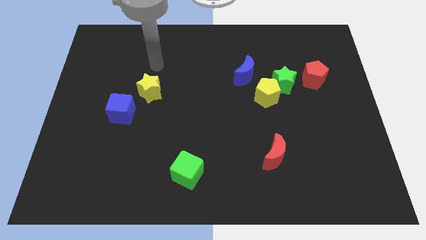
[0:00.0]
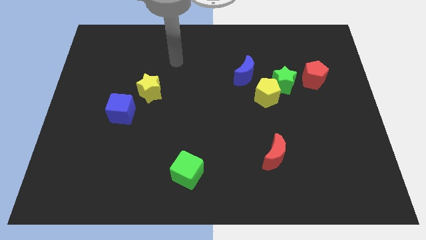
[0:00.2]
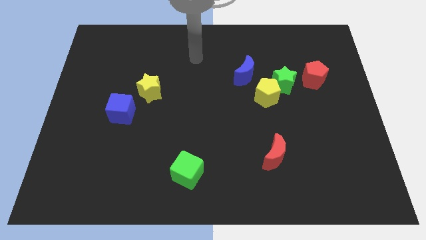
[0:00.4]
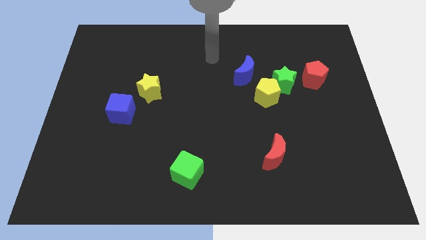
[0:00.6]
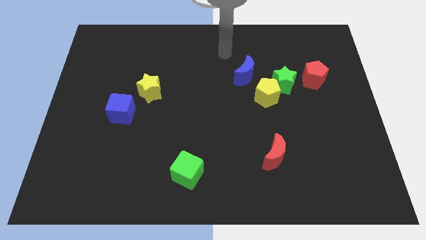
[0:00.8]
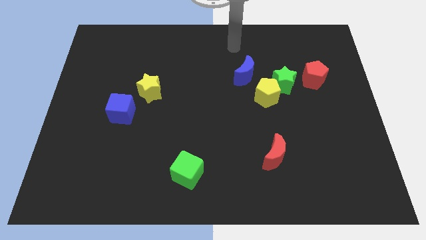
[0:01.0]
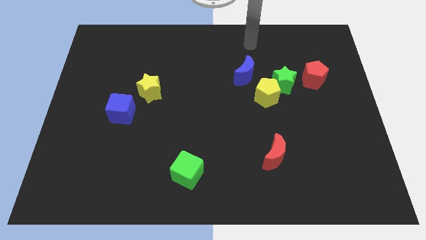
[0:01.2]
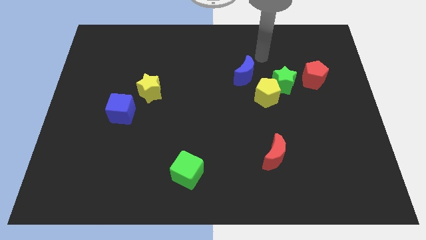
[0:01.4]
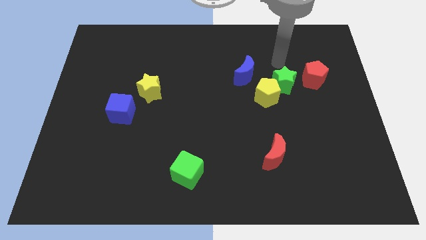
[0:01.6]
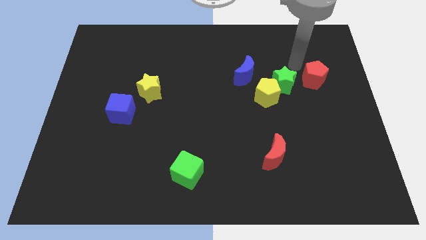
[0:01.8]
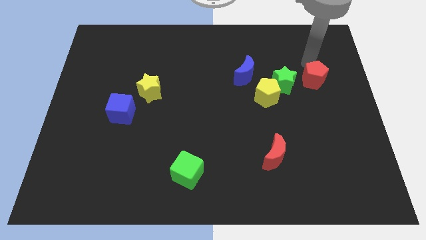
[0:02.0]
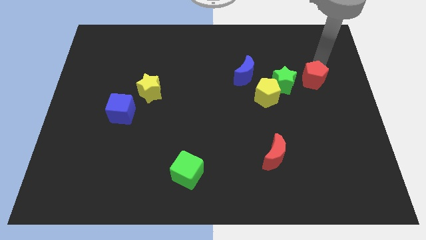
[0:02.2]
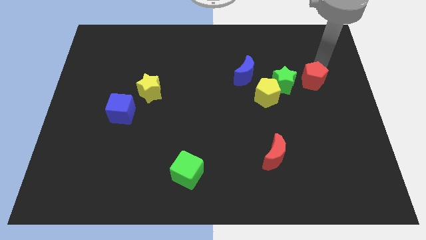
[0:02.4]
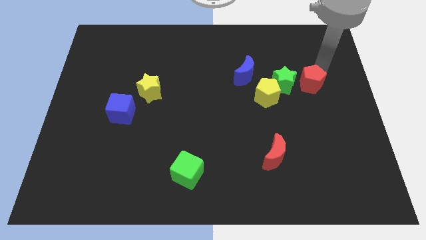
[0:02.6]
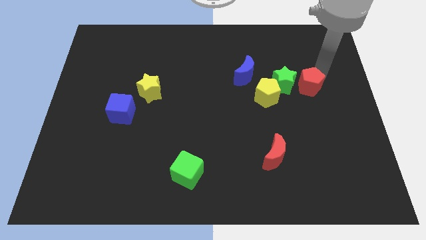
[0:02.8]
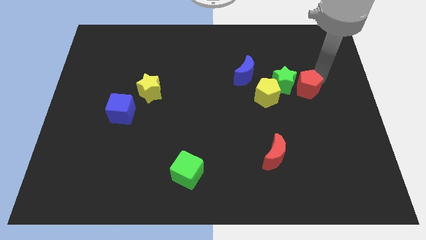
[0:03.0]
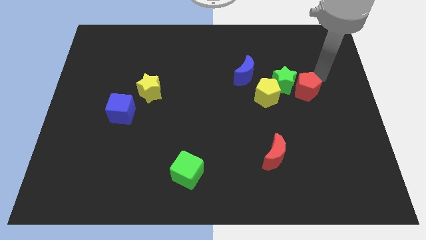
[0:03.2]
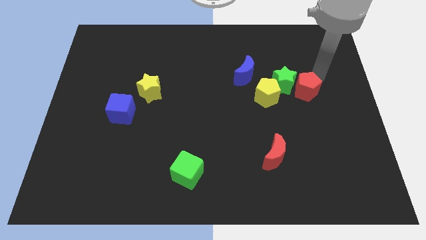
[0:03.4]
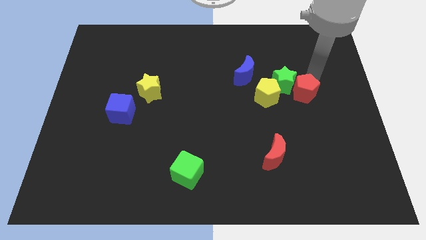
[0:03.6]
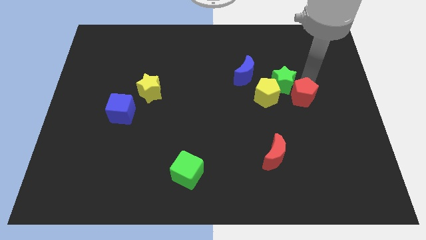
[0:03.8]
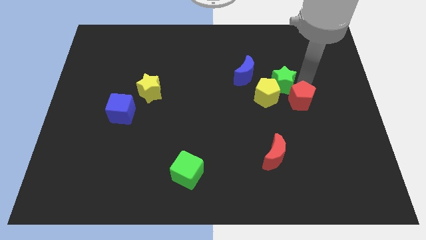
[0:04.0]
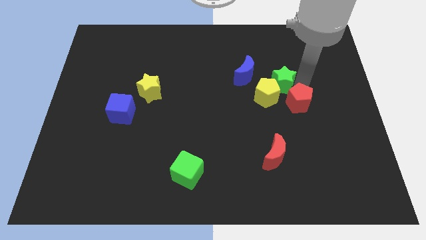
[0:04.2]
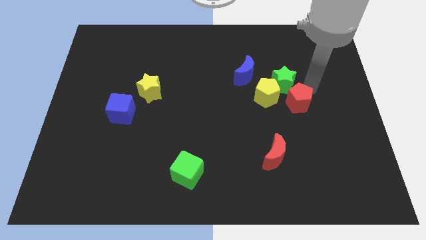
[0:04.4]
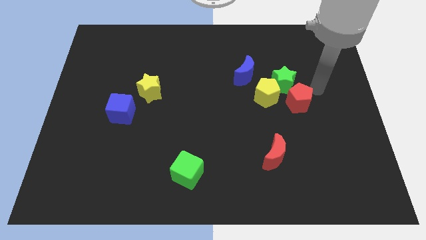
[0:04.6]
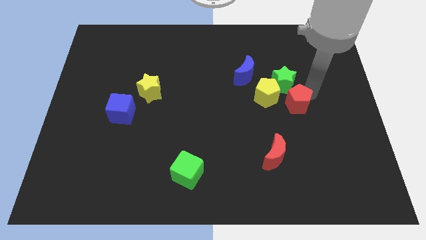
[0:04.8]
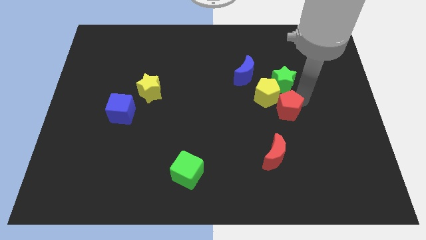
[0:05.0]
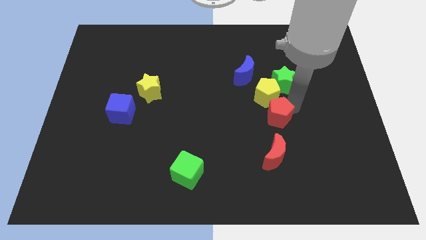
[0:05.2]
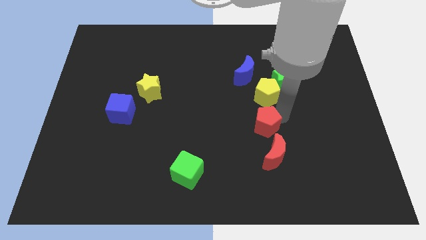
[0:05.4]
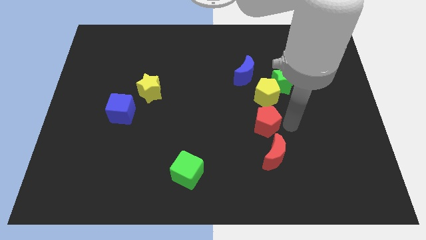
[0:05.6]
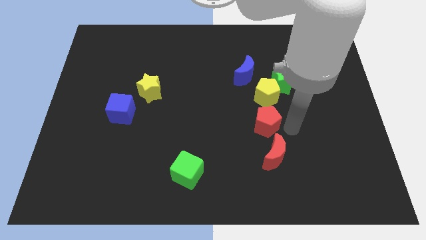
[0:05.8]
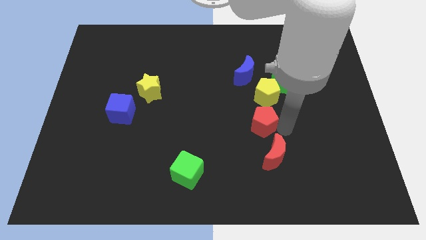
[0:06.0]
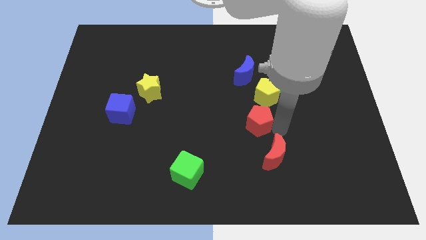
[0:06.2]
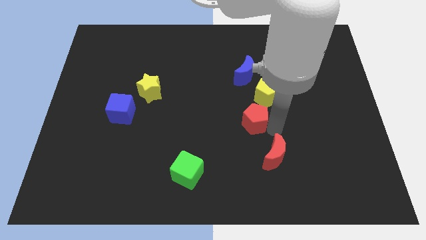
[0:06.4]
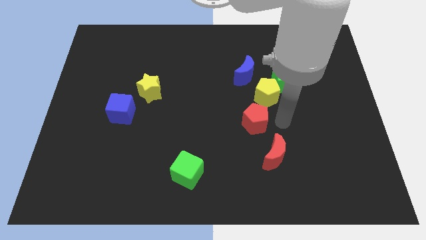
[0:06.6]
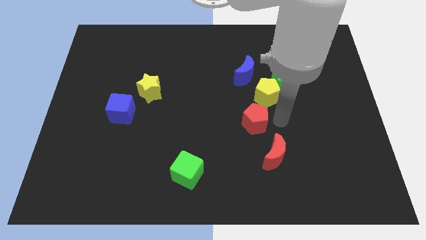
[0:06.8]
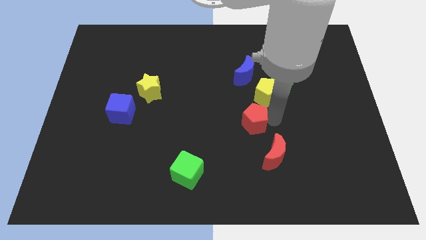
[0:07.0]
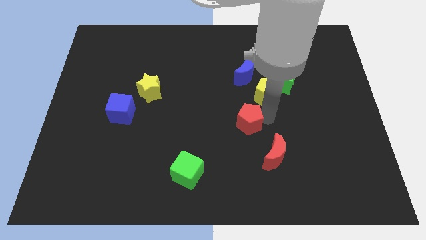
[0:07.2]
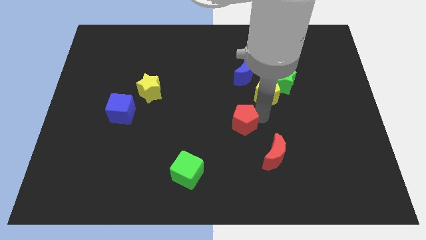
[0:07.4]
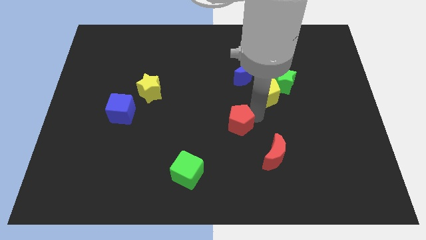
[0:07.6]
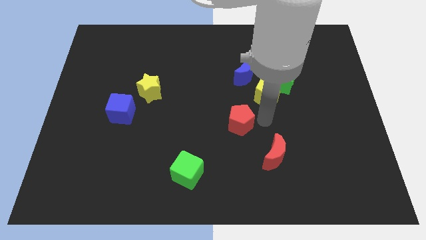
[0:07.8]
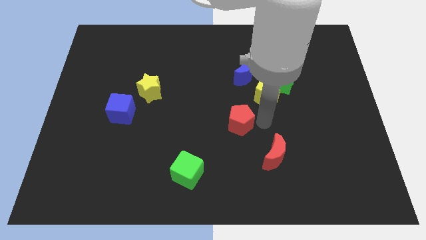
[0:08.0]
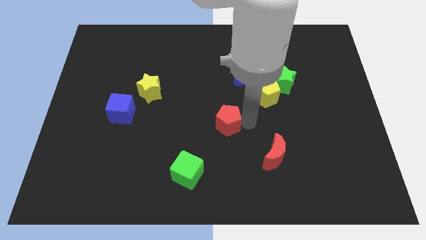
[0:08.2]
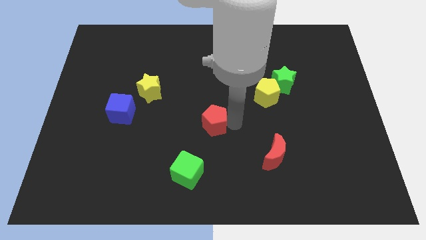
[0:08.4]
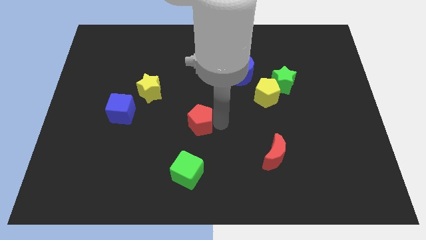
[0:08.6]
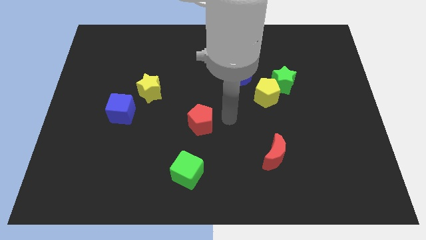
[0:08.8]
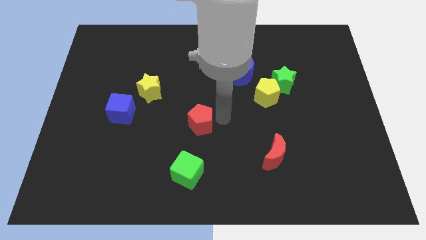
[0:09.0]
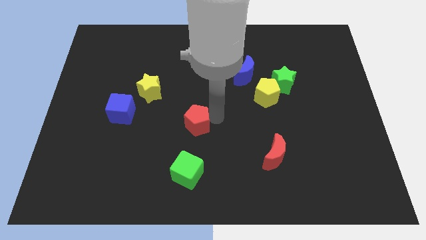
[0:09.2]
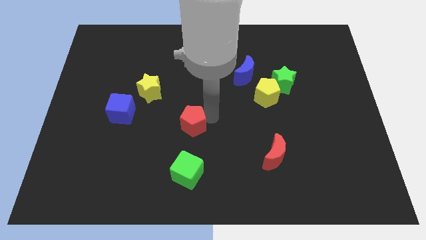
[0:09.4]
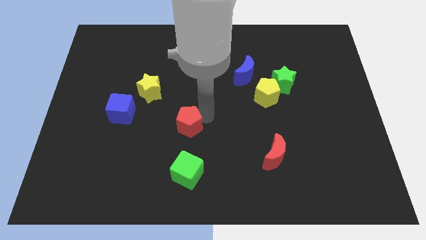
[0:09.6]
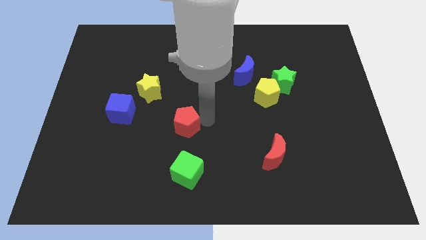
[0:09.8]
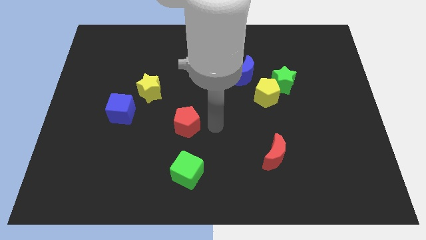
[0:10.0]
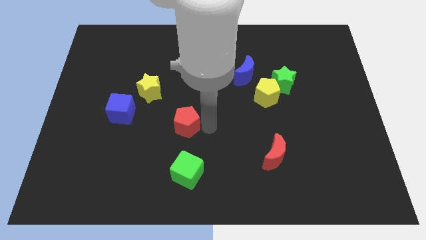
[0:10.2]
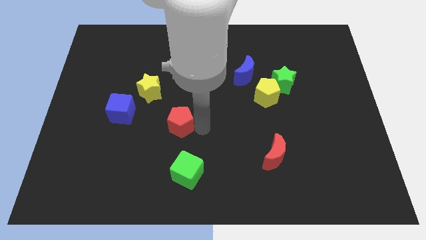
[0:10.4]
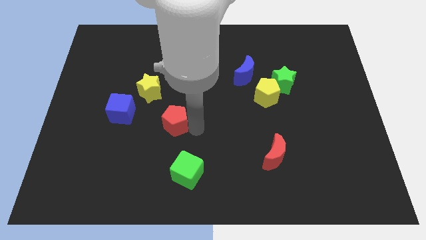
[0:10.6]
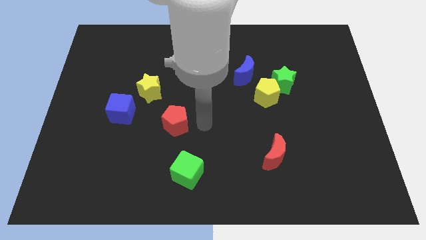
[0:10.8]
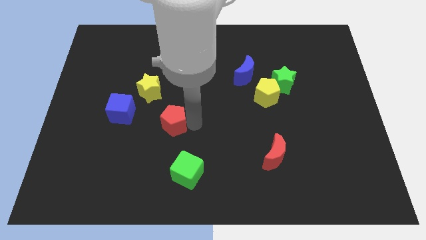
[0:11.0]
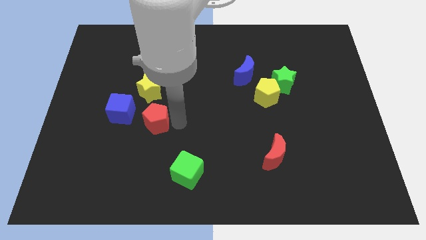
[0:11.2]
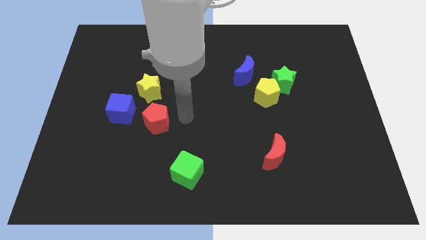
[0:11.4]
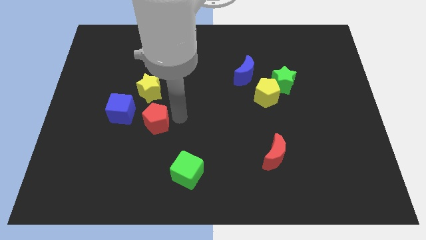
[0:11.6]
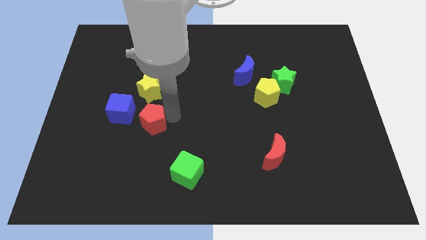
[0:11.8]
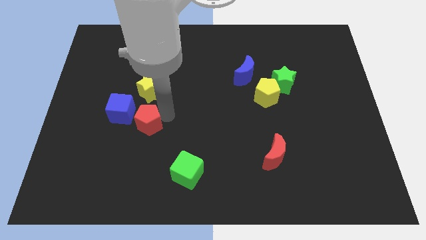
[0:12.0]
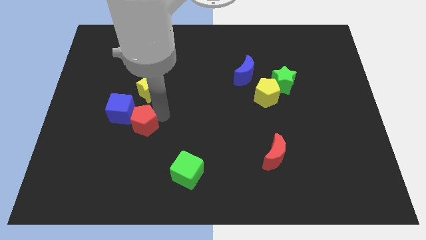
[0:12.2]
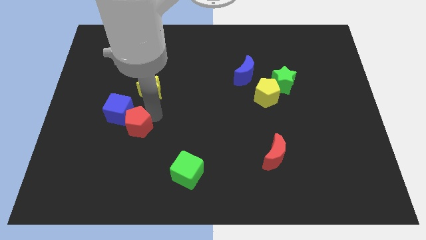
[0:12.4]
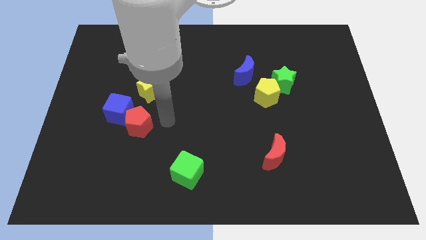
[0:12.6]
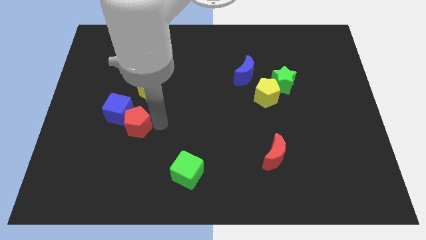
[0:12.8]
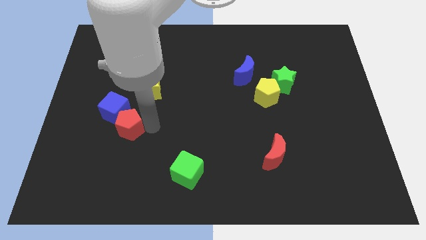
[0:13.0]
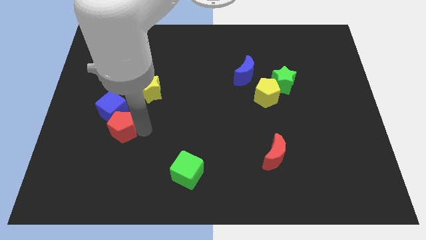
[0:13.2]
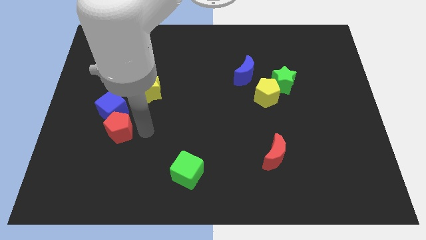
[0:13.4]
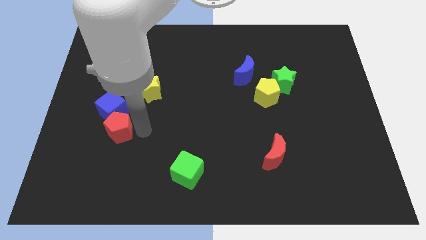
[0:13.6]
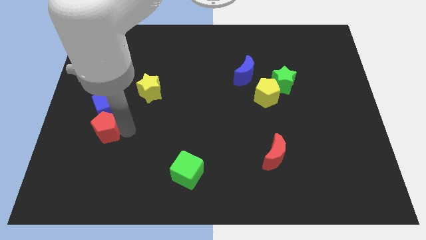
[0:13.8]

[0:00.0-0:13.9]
slide the red pentagon to the bottom left of the blue cube

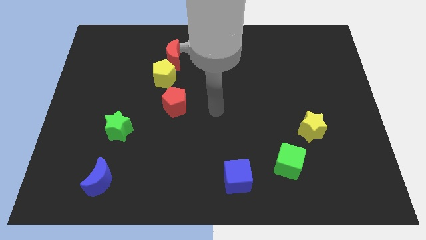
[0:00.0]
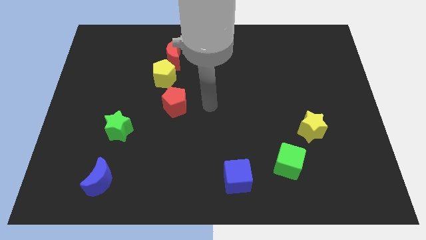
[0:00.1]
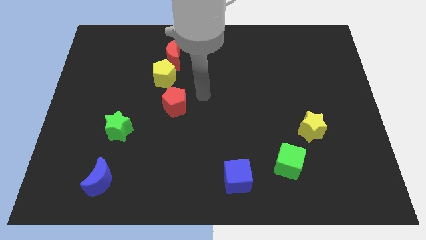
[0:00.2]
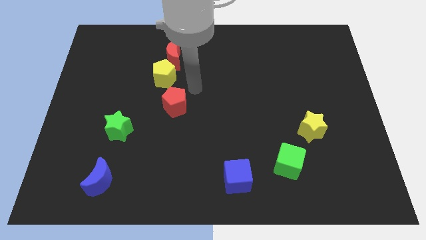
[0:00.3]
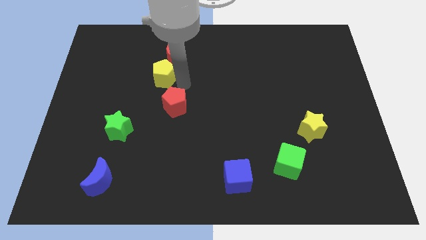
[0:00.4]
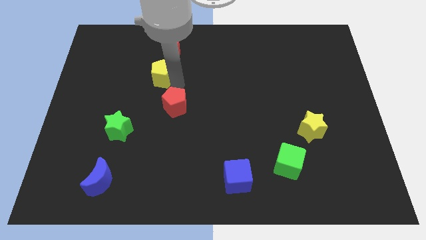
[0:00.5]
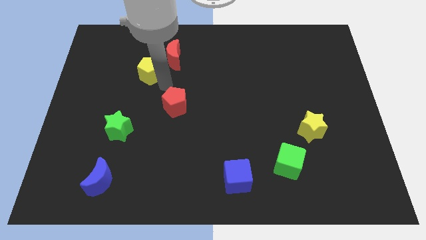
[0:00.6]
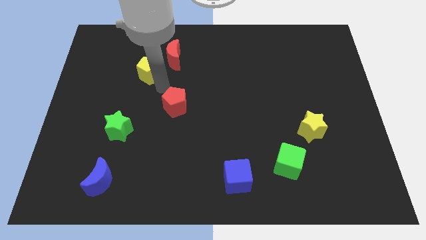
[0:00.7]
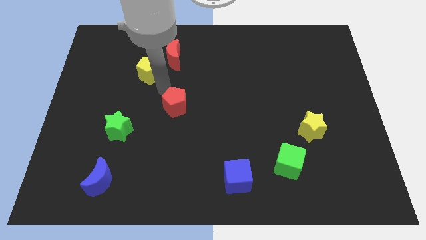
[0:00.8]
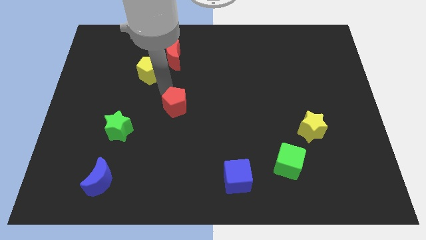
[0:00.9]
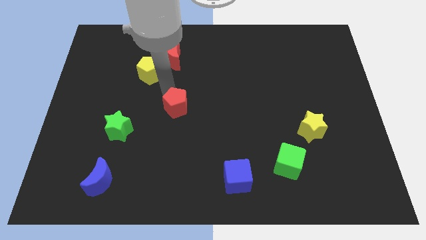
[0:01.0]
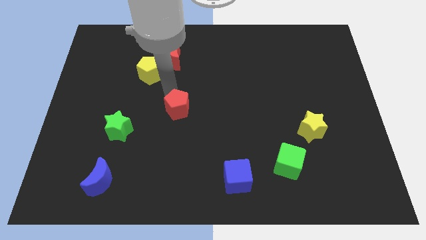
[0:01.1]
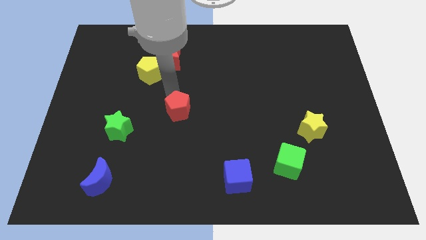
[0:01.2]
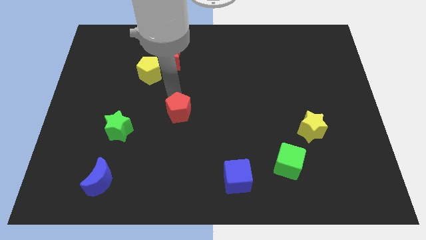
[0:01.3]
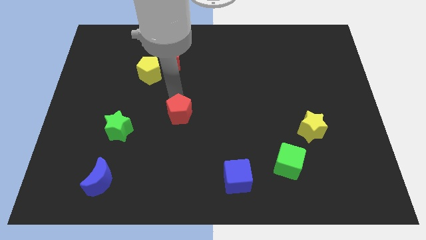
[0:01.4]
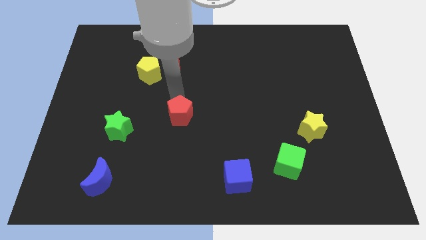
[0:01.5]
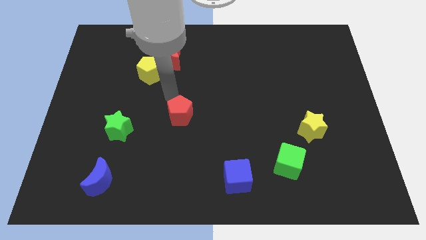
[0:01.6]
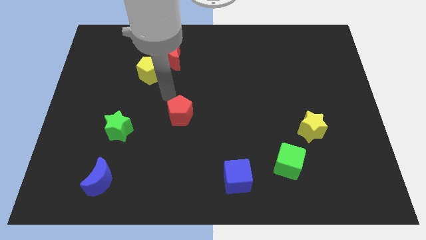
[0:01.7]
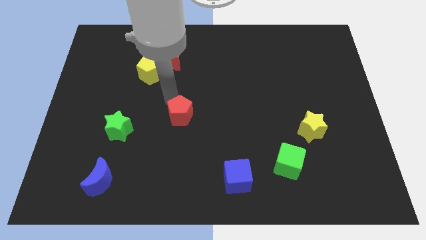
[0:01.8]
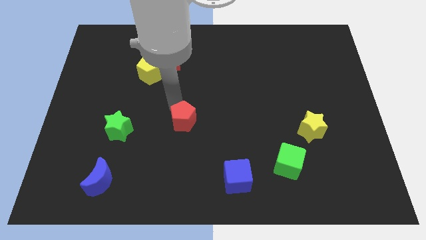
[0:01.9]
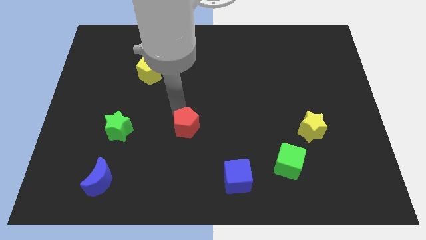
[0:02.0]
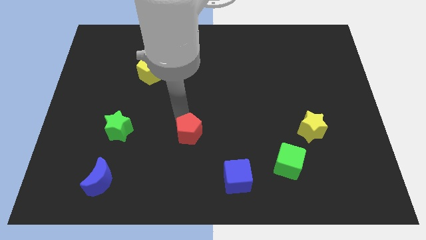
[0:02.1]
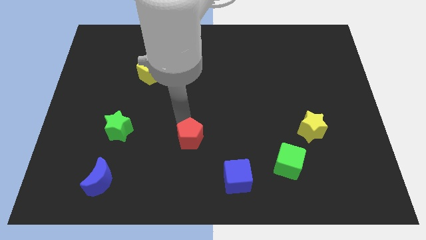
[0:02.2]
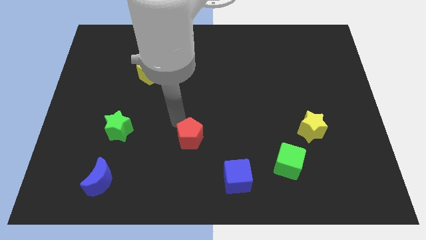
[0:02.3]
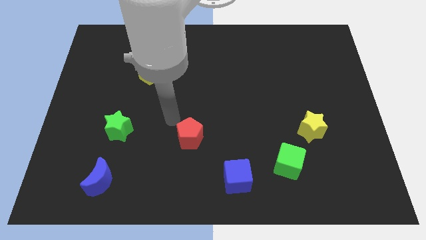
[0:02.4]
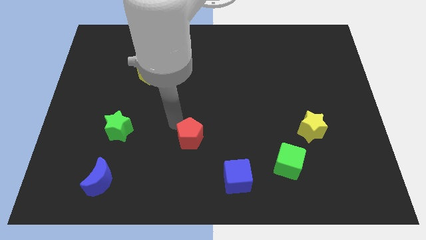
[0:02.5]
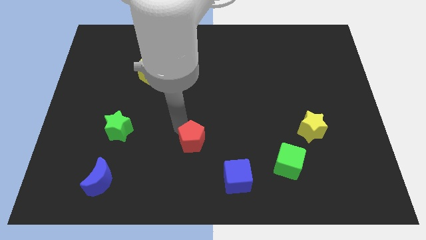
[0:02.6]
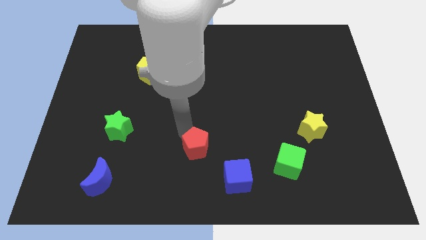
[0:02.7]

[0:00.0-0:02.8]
put the red pentagon diagonally up and to the left of the blue cube
